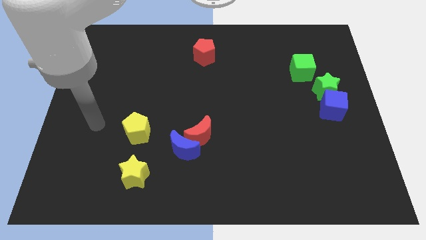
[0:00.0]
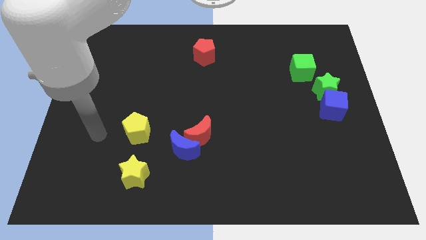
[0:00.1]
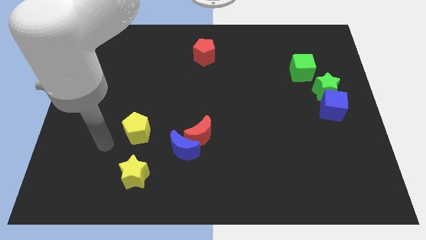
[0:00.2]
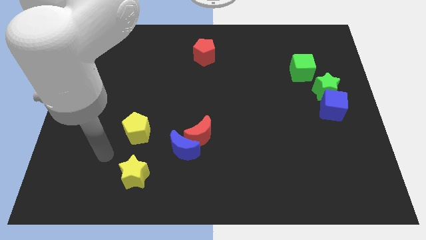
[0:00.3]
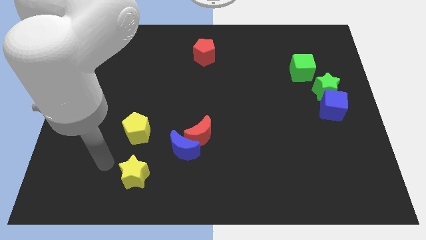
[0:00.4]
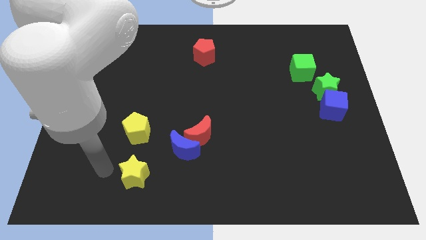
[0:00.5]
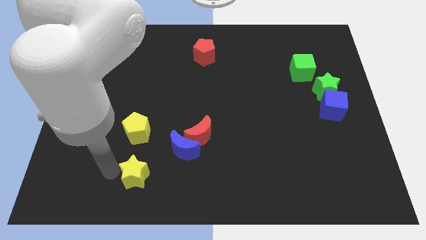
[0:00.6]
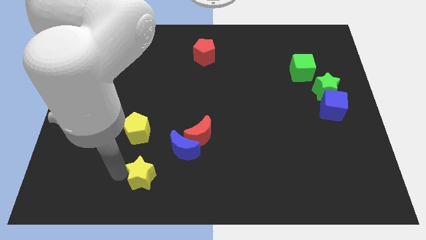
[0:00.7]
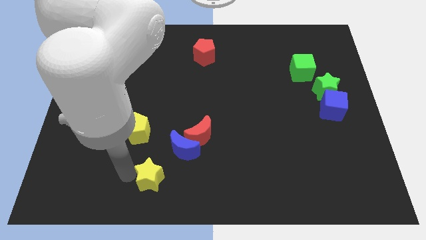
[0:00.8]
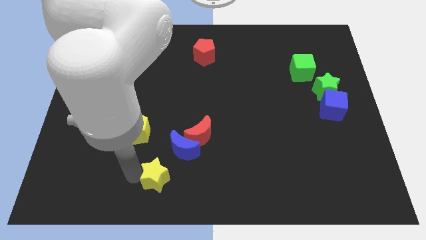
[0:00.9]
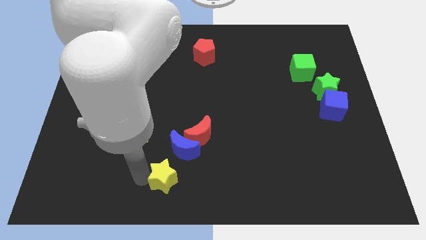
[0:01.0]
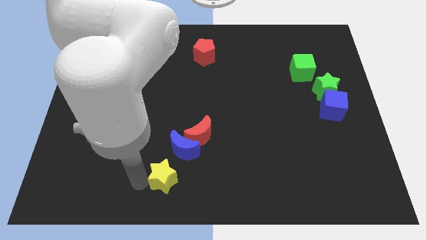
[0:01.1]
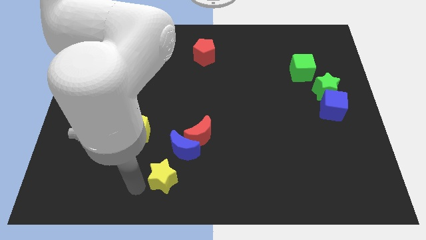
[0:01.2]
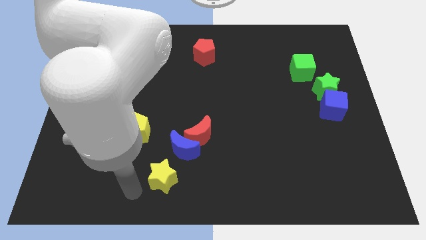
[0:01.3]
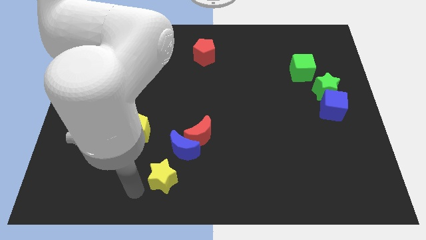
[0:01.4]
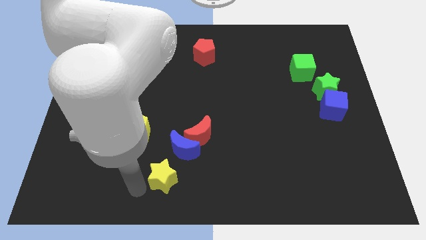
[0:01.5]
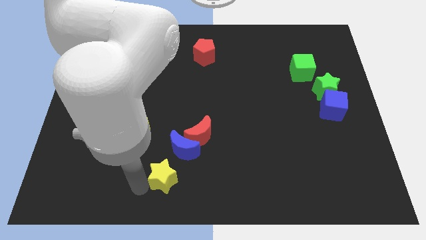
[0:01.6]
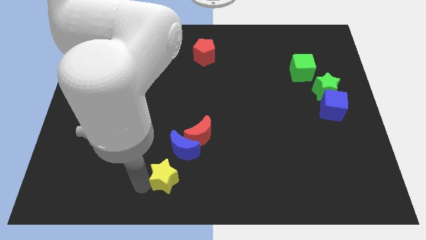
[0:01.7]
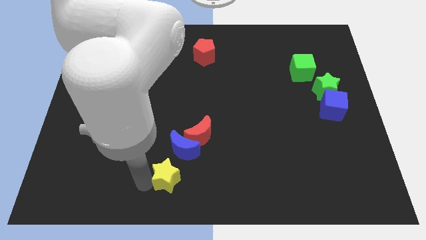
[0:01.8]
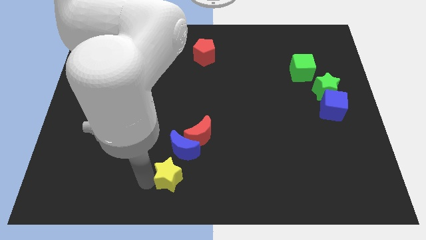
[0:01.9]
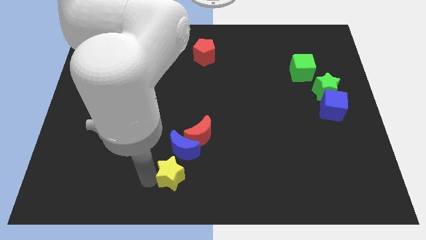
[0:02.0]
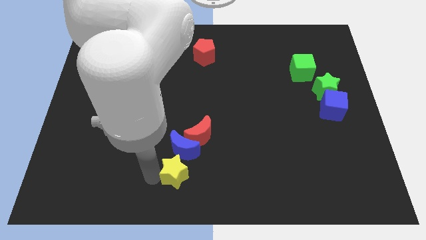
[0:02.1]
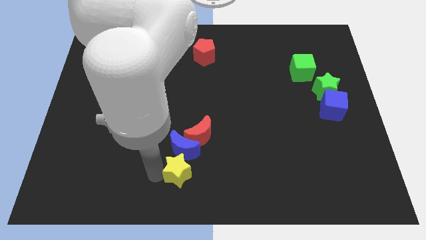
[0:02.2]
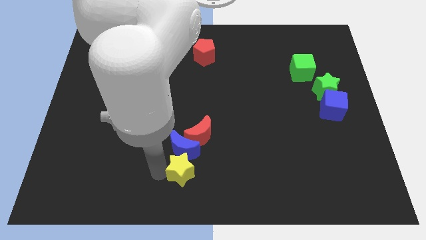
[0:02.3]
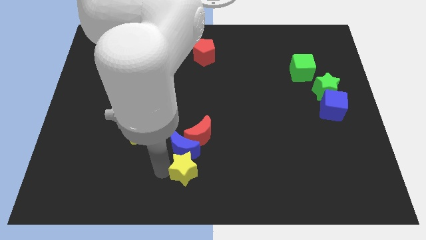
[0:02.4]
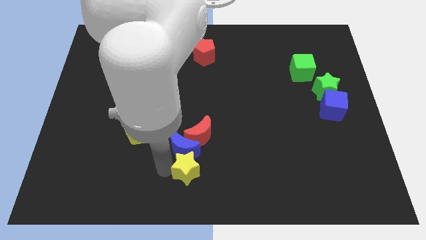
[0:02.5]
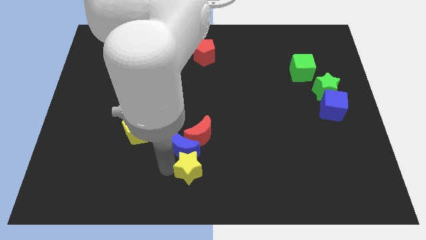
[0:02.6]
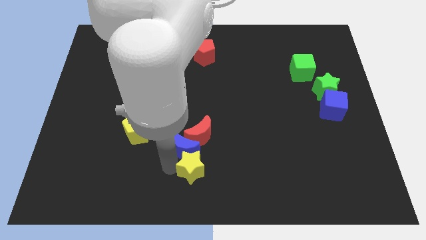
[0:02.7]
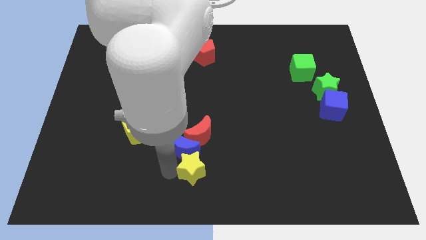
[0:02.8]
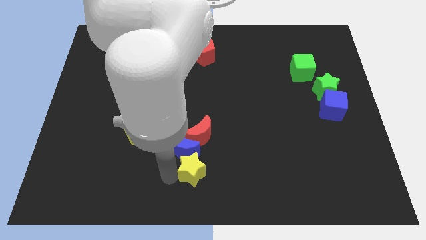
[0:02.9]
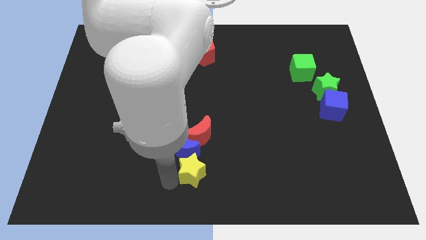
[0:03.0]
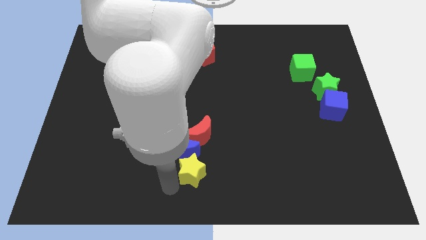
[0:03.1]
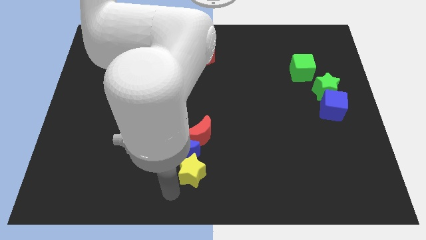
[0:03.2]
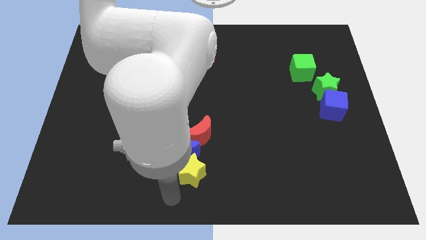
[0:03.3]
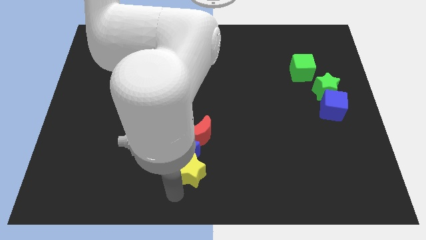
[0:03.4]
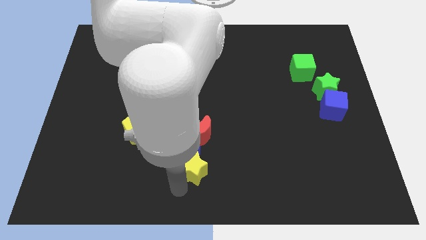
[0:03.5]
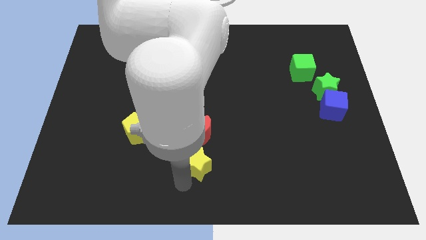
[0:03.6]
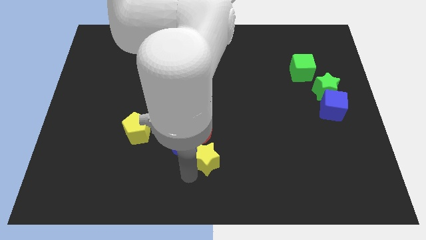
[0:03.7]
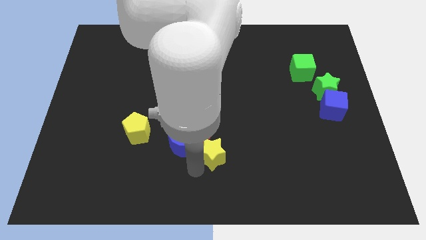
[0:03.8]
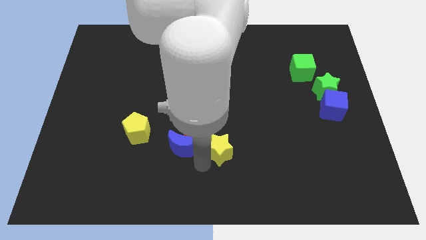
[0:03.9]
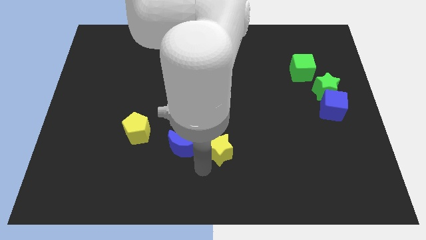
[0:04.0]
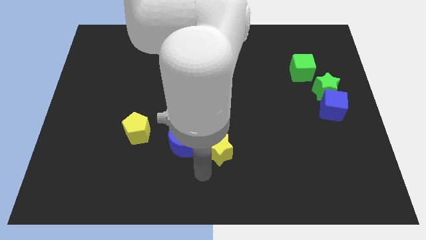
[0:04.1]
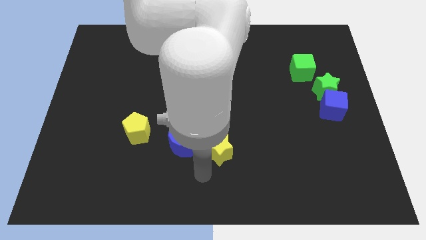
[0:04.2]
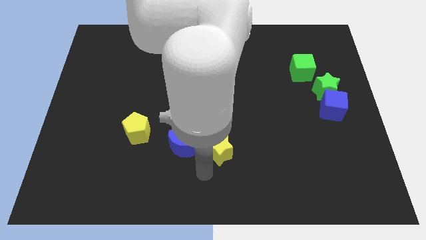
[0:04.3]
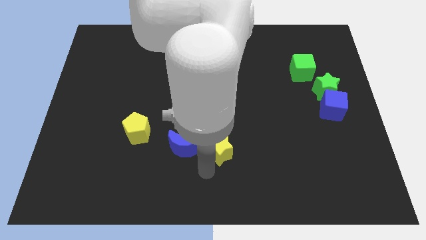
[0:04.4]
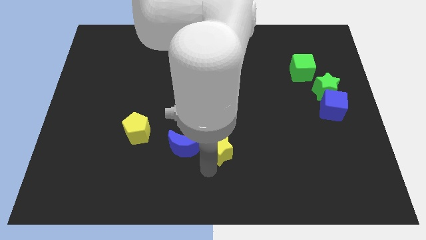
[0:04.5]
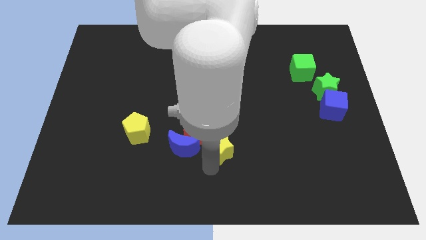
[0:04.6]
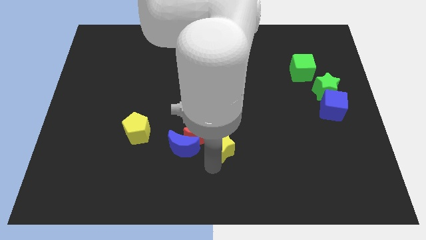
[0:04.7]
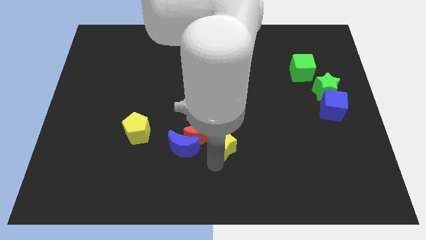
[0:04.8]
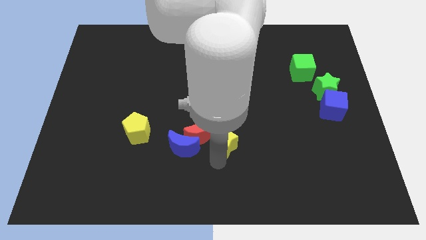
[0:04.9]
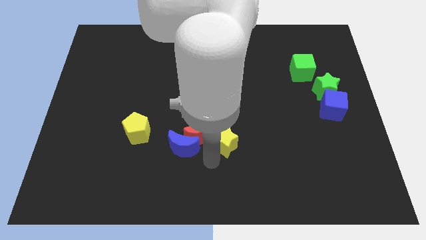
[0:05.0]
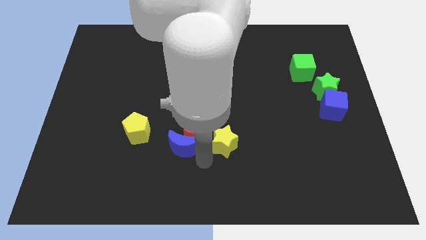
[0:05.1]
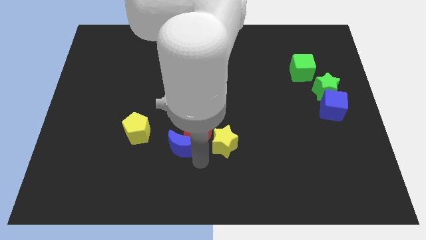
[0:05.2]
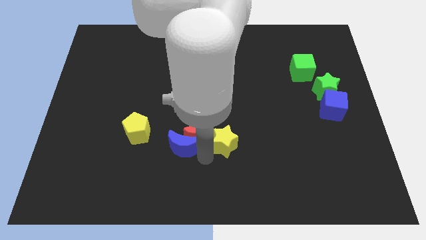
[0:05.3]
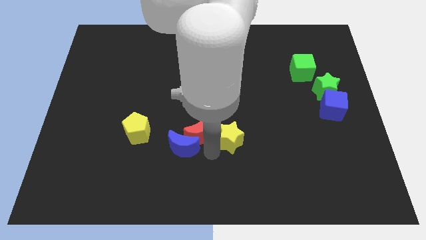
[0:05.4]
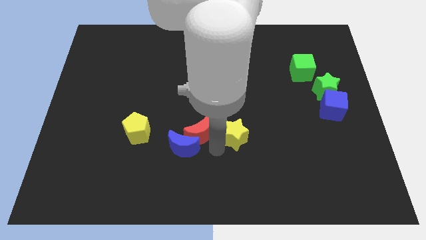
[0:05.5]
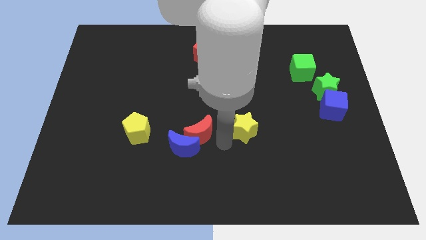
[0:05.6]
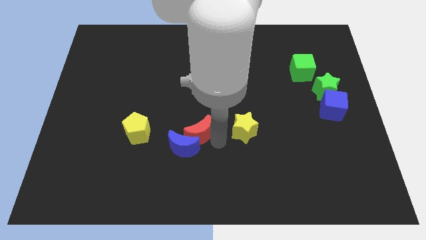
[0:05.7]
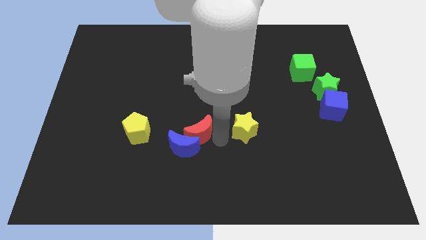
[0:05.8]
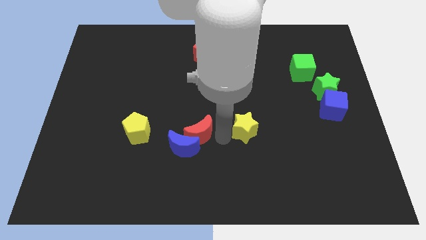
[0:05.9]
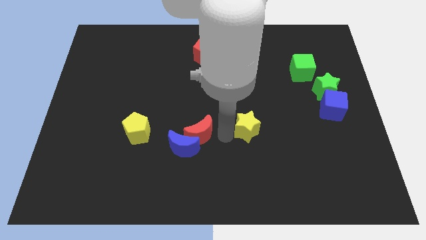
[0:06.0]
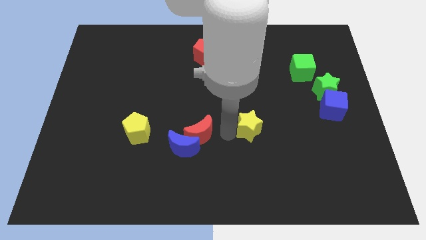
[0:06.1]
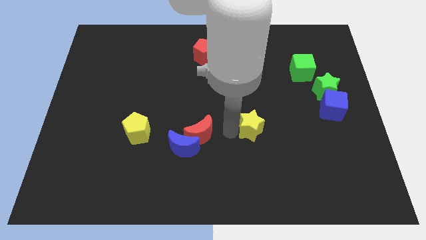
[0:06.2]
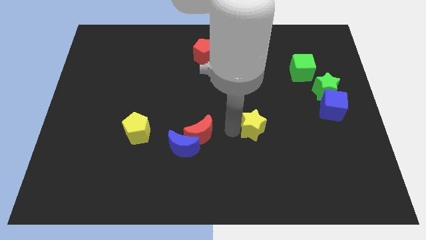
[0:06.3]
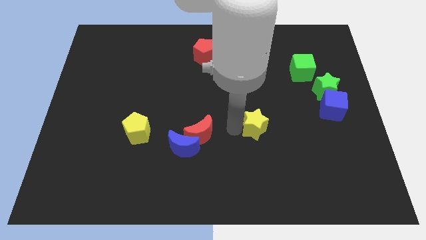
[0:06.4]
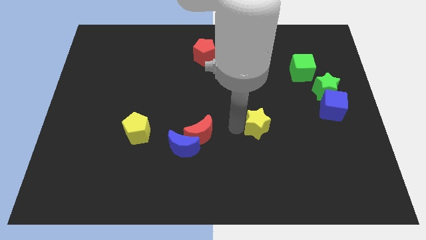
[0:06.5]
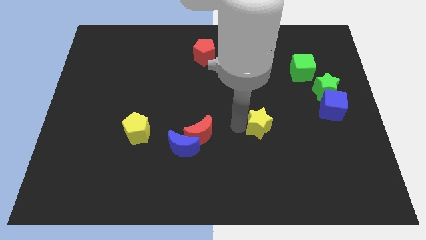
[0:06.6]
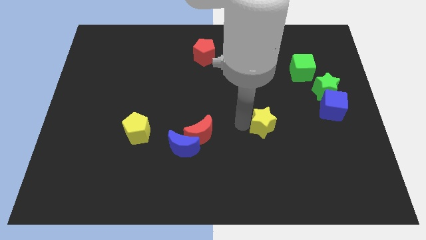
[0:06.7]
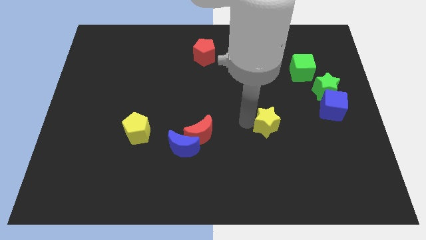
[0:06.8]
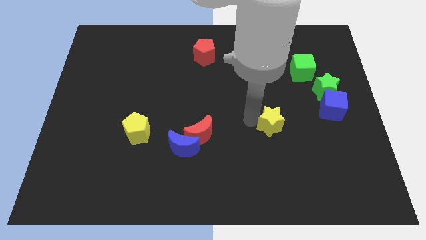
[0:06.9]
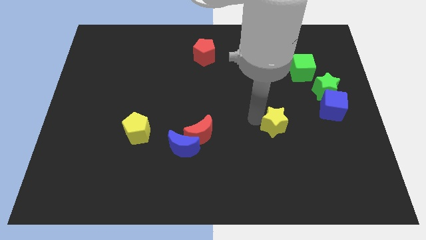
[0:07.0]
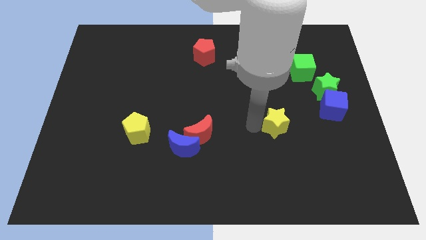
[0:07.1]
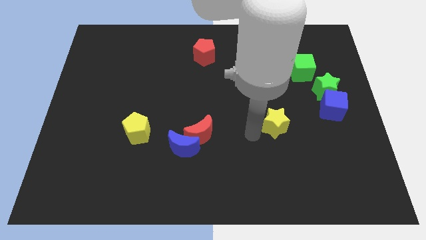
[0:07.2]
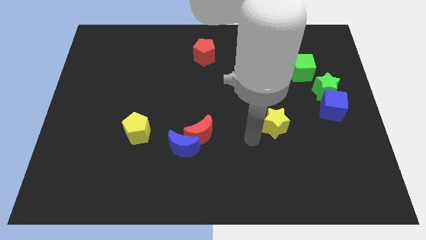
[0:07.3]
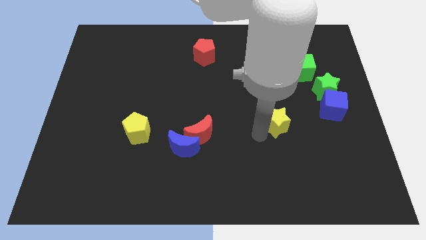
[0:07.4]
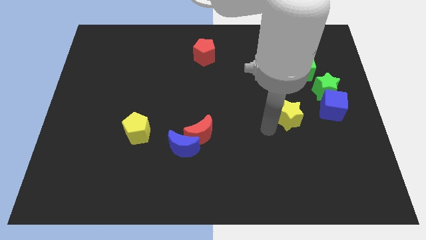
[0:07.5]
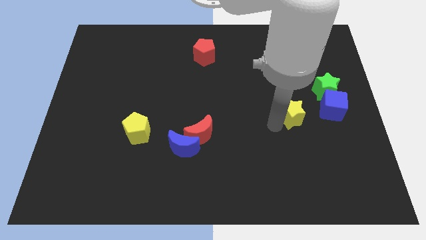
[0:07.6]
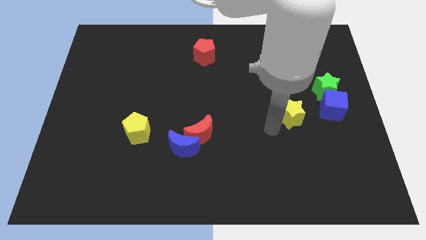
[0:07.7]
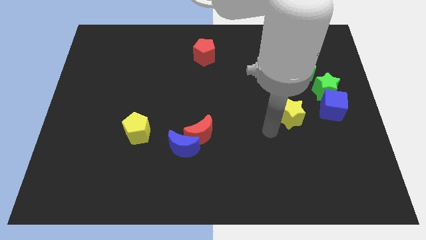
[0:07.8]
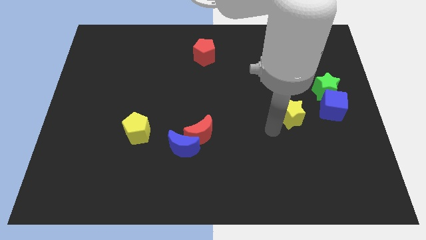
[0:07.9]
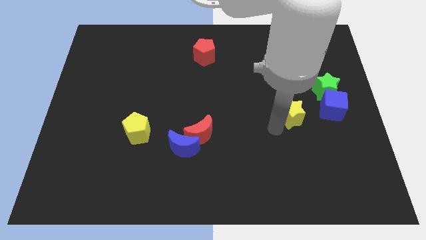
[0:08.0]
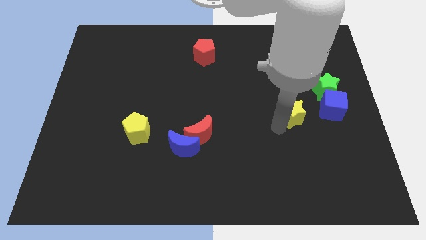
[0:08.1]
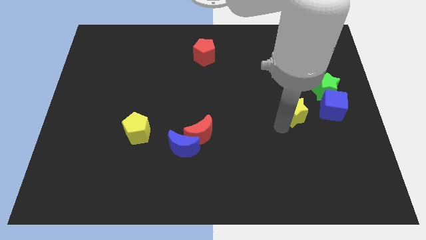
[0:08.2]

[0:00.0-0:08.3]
put the yellow star to the bottom of the green cube
